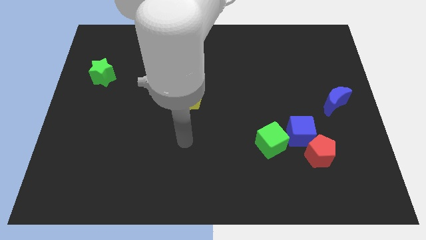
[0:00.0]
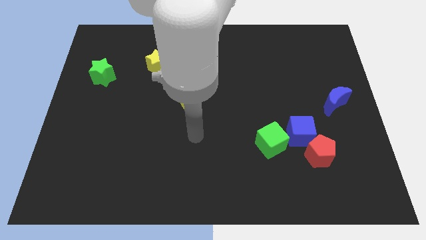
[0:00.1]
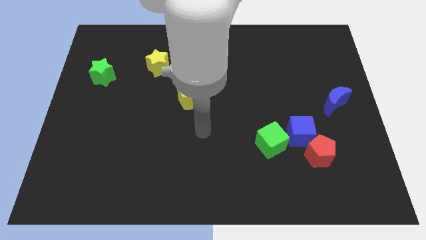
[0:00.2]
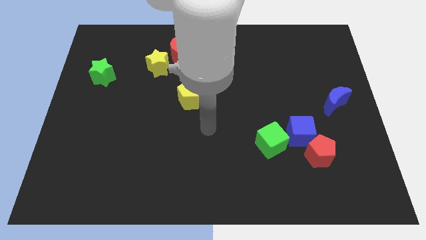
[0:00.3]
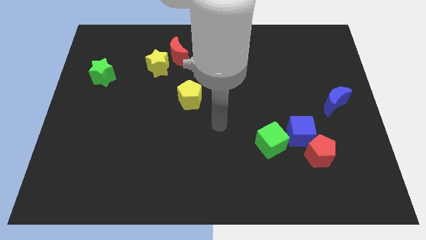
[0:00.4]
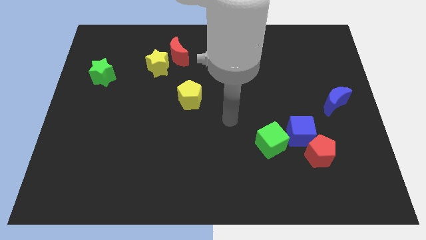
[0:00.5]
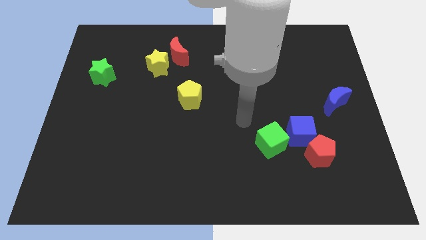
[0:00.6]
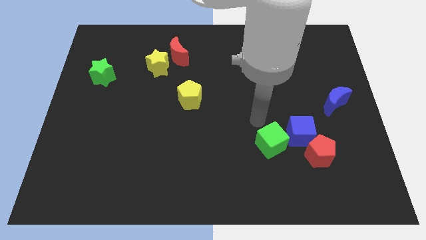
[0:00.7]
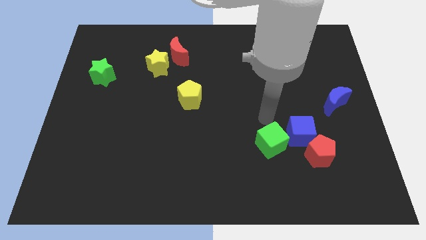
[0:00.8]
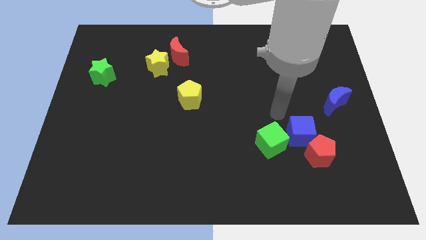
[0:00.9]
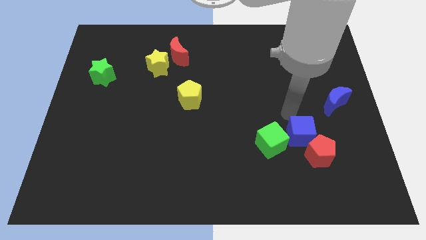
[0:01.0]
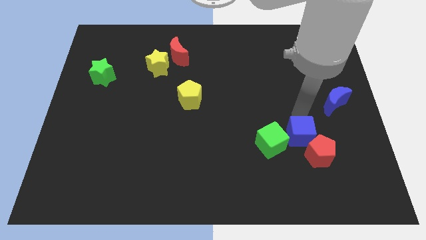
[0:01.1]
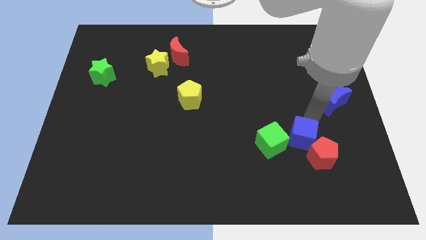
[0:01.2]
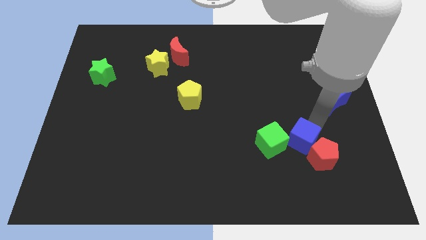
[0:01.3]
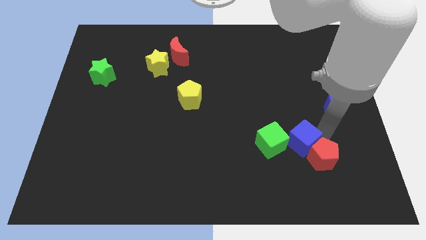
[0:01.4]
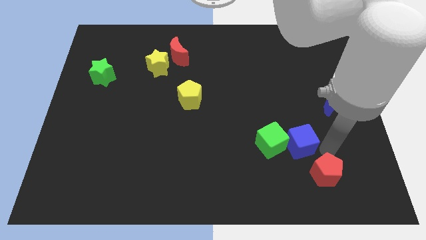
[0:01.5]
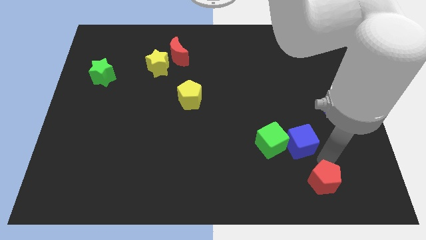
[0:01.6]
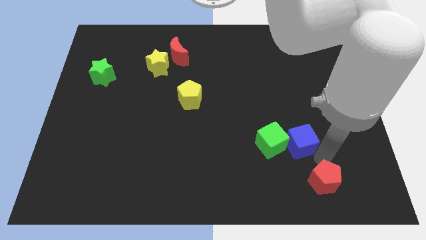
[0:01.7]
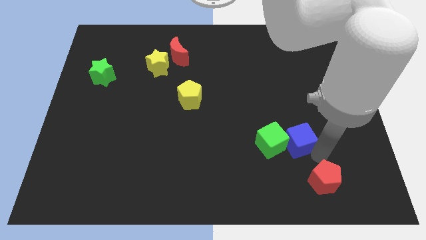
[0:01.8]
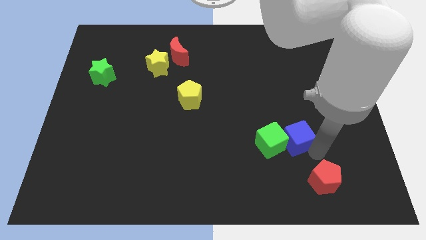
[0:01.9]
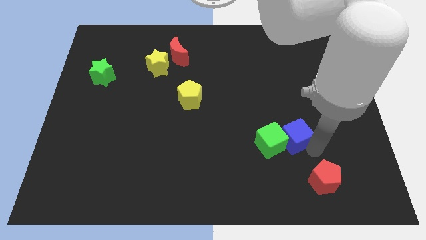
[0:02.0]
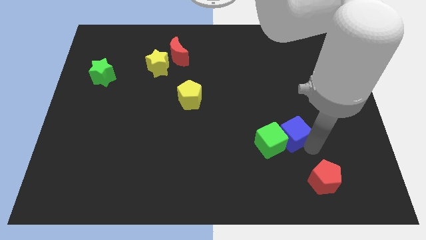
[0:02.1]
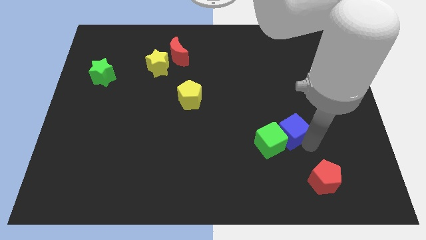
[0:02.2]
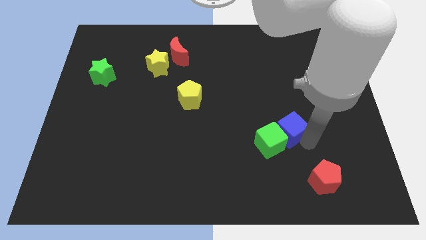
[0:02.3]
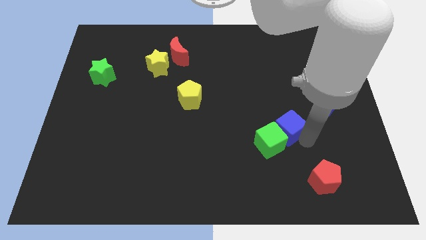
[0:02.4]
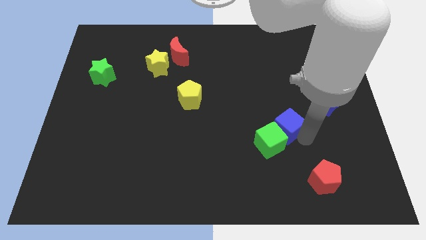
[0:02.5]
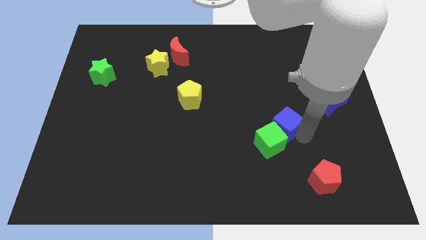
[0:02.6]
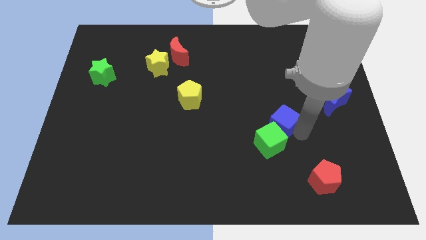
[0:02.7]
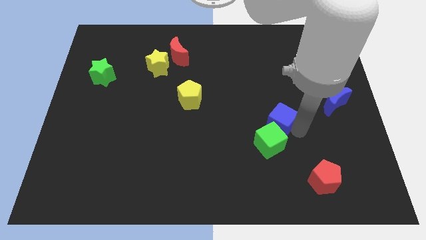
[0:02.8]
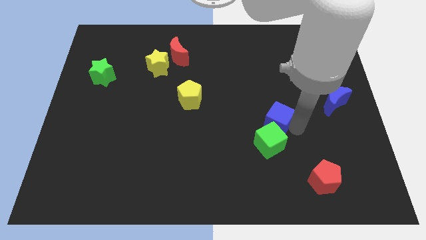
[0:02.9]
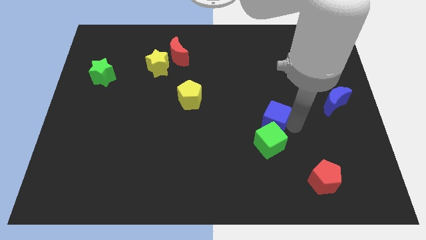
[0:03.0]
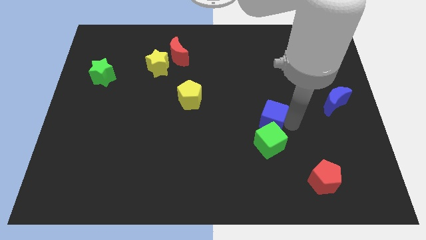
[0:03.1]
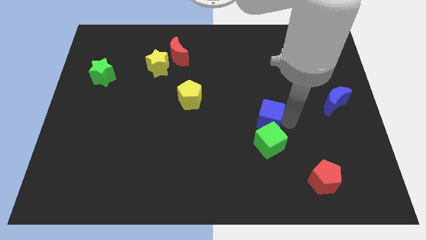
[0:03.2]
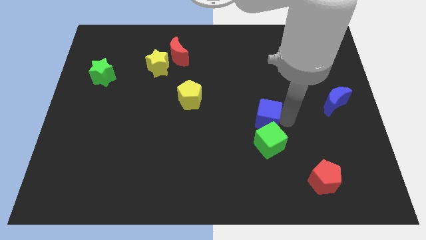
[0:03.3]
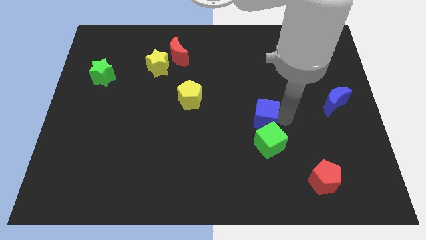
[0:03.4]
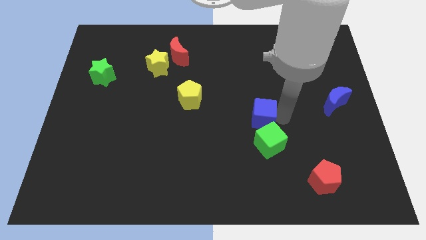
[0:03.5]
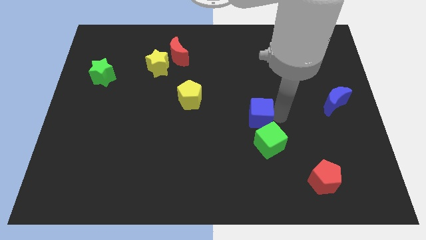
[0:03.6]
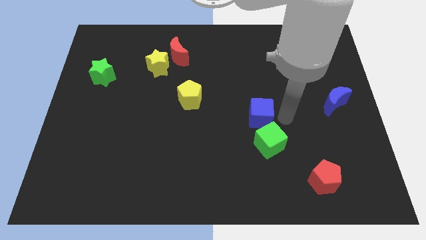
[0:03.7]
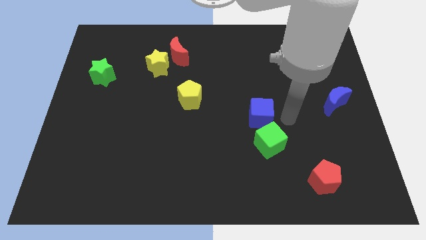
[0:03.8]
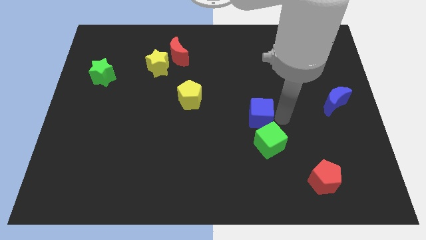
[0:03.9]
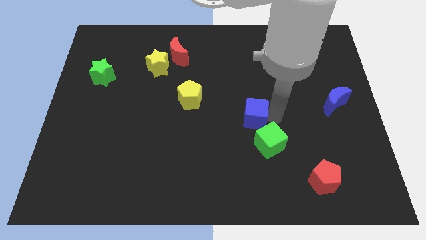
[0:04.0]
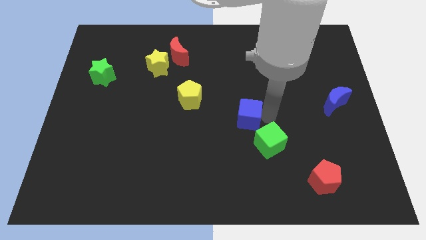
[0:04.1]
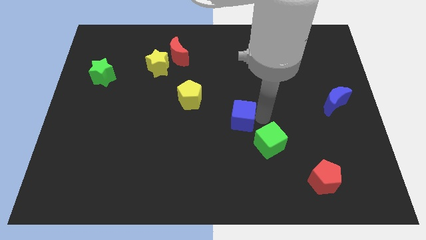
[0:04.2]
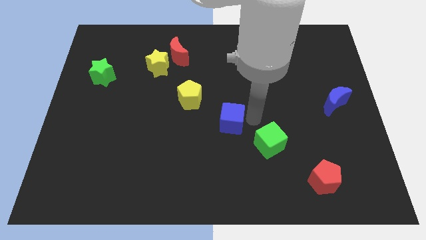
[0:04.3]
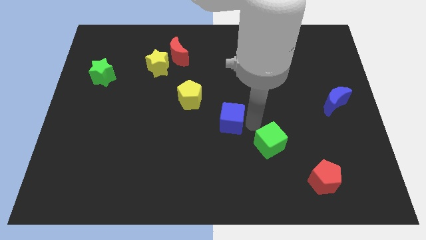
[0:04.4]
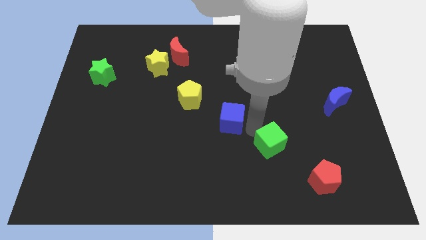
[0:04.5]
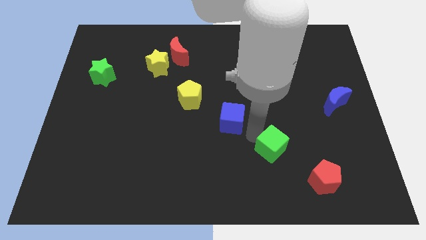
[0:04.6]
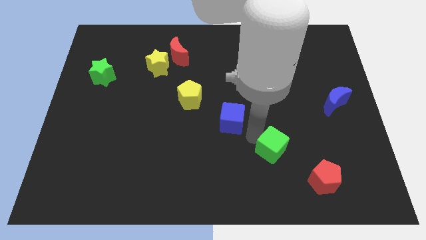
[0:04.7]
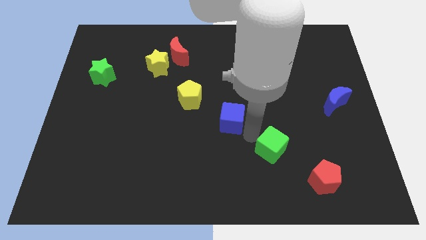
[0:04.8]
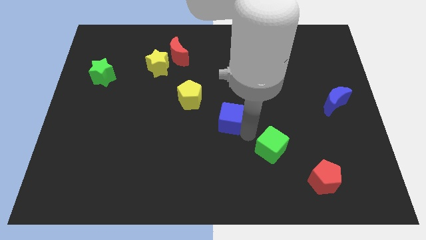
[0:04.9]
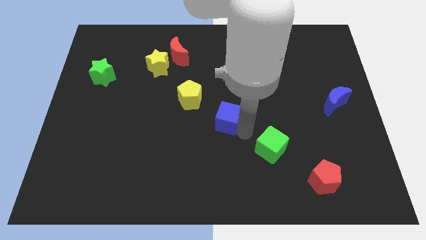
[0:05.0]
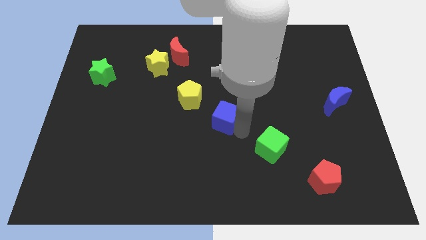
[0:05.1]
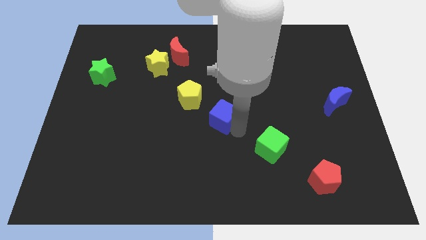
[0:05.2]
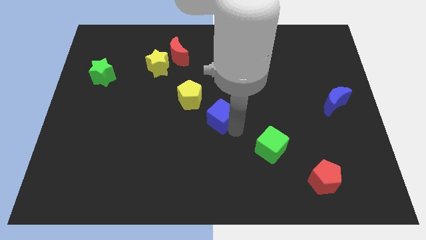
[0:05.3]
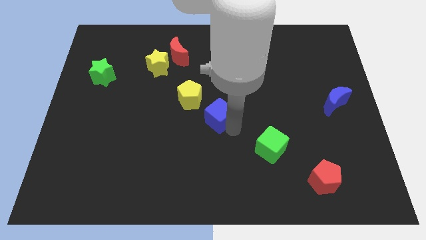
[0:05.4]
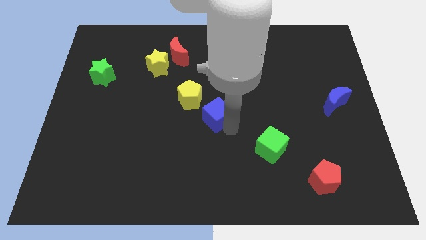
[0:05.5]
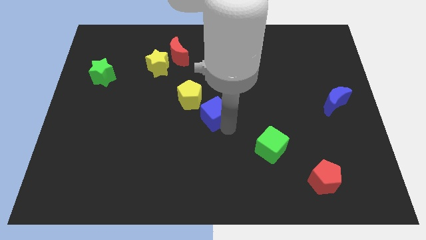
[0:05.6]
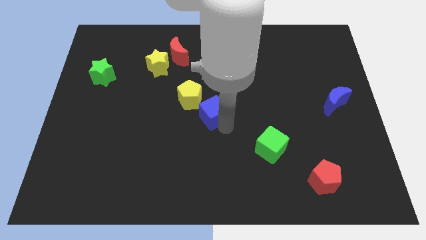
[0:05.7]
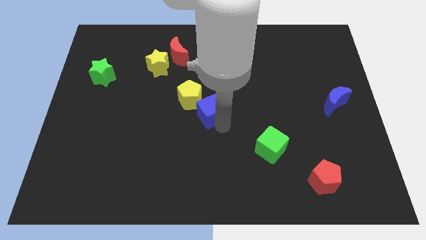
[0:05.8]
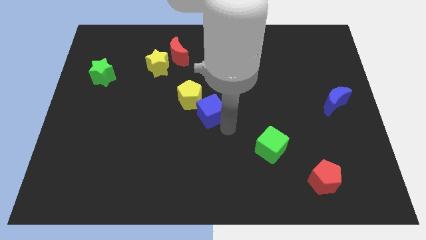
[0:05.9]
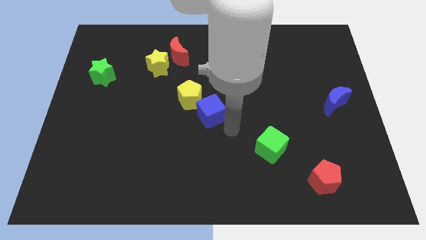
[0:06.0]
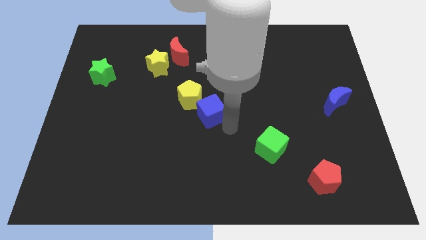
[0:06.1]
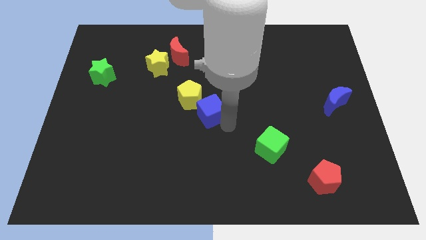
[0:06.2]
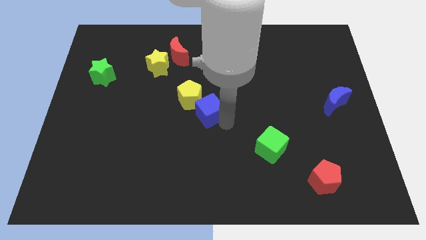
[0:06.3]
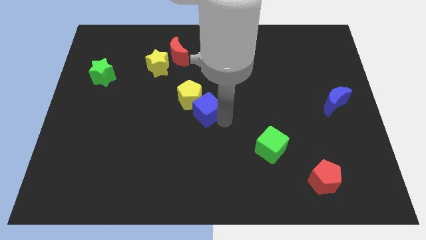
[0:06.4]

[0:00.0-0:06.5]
put the blue cube to the yellow pentagon

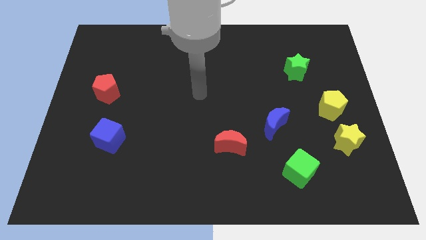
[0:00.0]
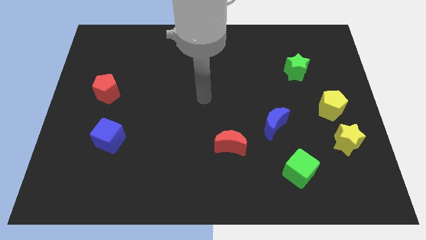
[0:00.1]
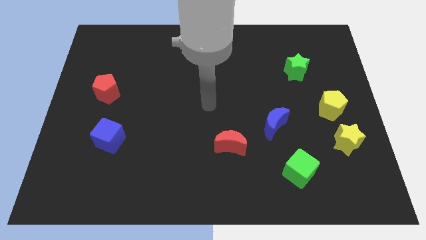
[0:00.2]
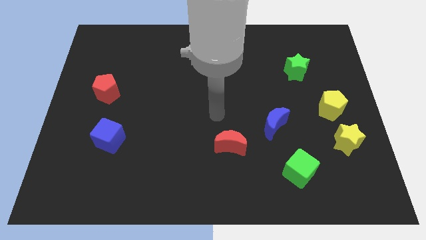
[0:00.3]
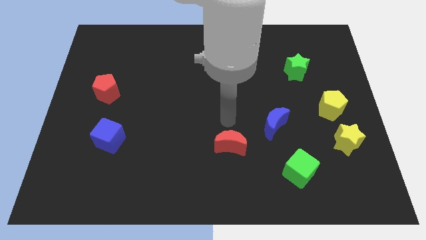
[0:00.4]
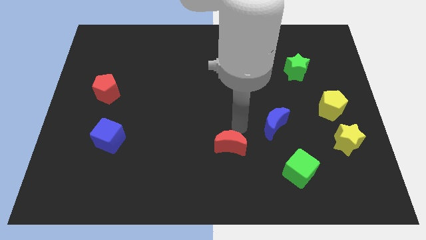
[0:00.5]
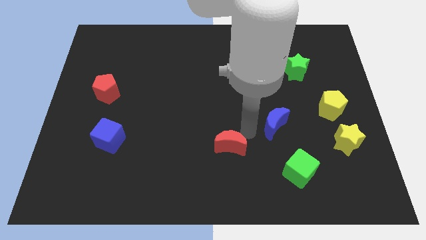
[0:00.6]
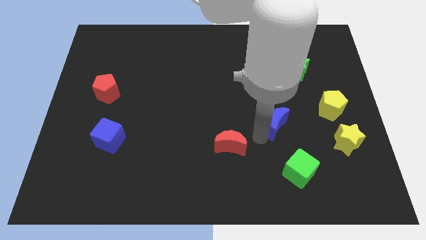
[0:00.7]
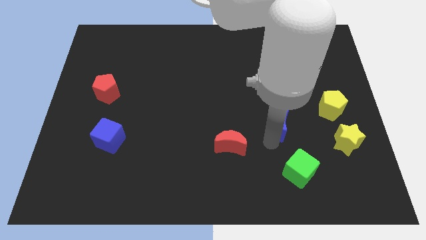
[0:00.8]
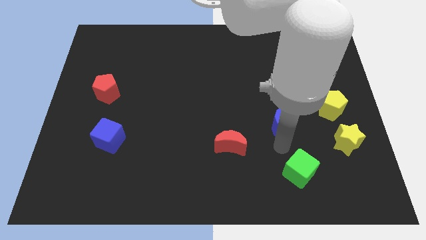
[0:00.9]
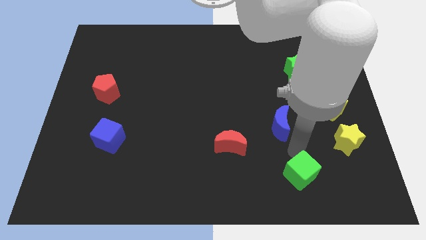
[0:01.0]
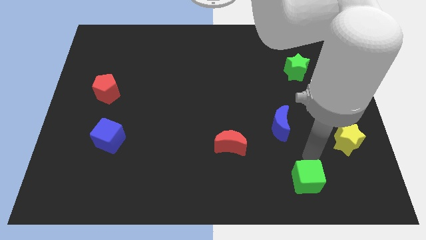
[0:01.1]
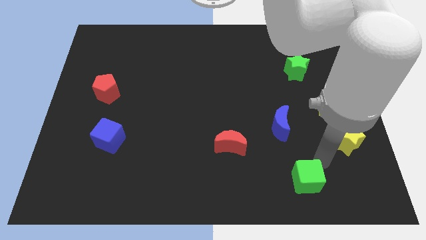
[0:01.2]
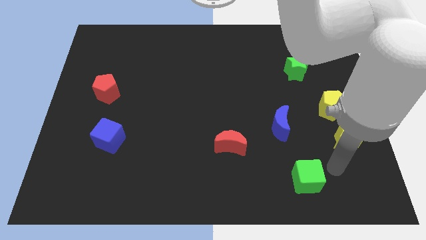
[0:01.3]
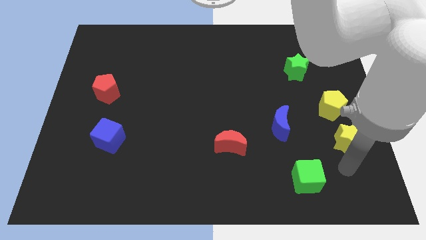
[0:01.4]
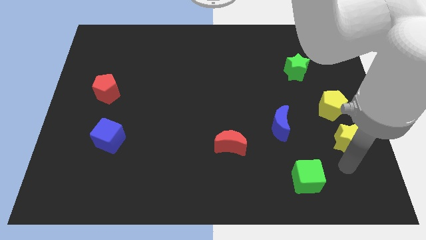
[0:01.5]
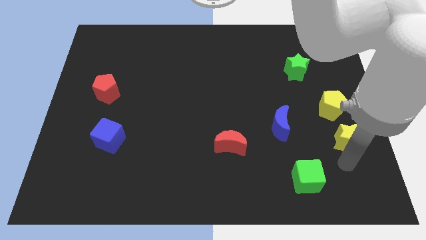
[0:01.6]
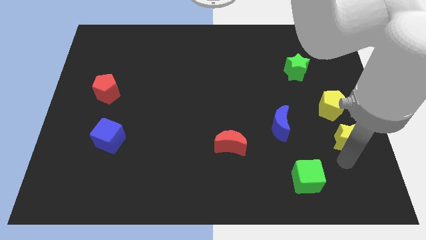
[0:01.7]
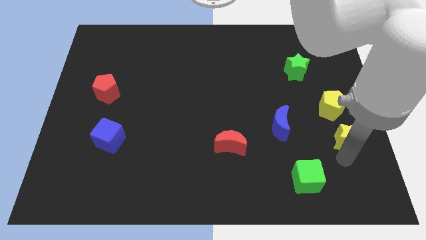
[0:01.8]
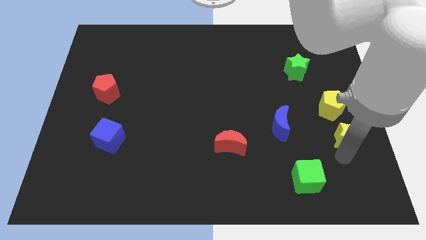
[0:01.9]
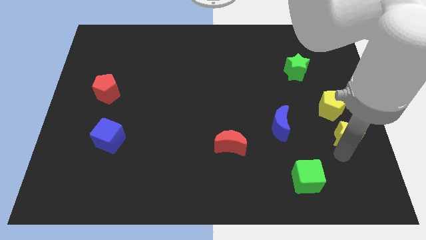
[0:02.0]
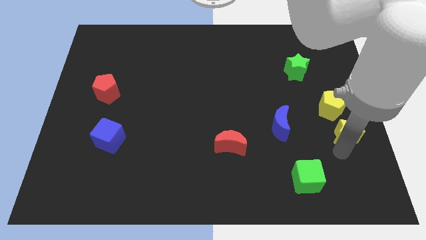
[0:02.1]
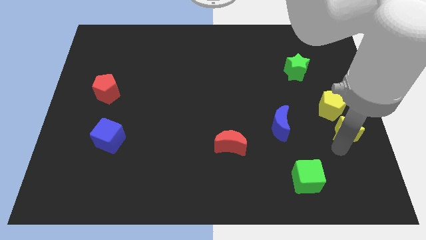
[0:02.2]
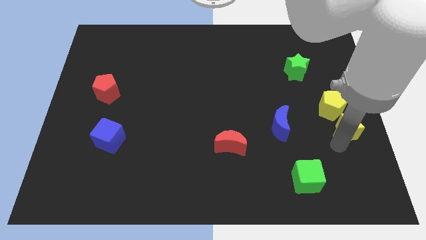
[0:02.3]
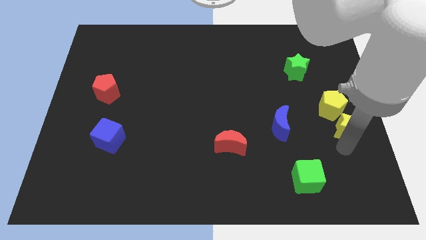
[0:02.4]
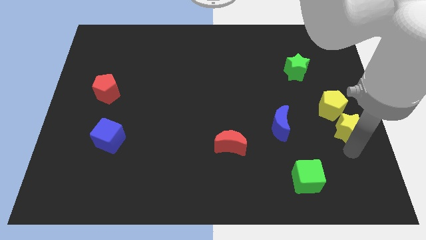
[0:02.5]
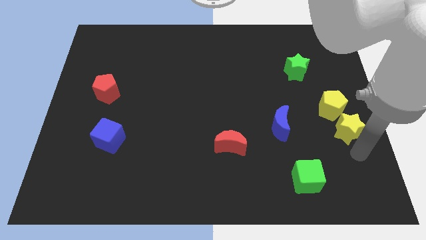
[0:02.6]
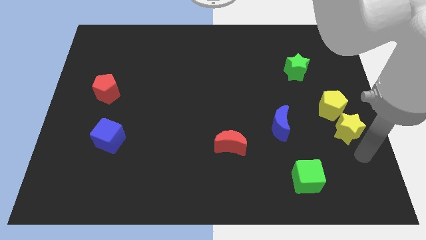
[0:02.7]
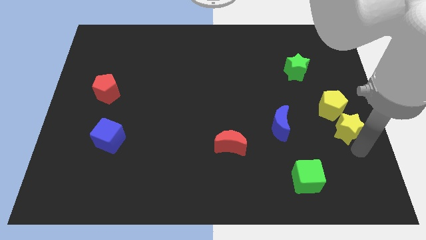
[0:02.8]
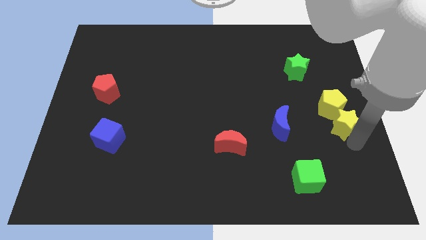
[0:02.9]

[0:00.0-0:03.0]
move the yellow star close to the yellow pentagon
